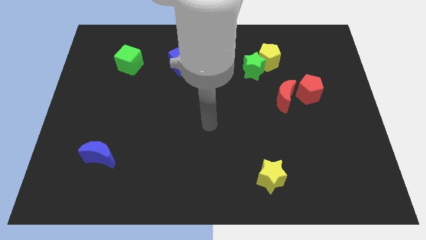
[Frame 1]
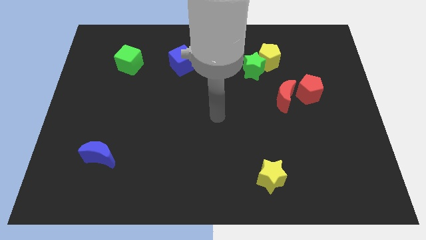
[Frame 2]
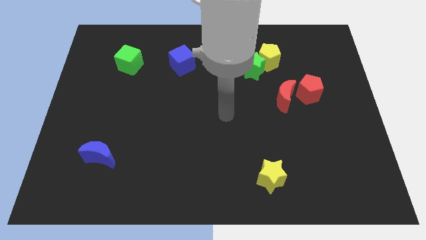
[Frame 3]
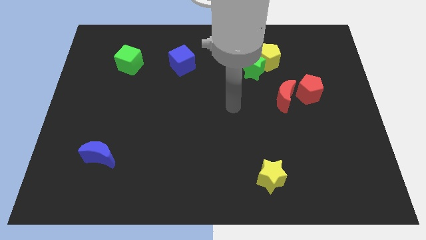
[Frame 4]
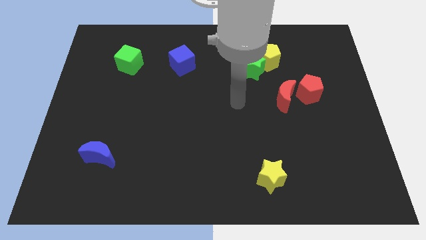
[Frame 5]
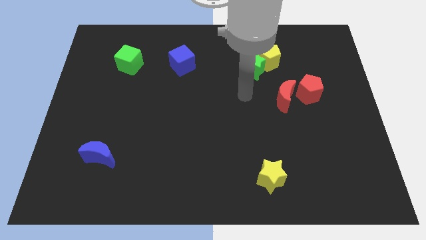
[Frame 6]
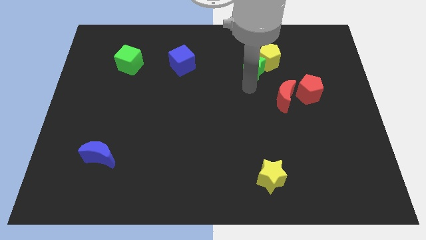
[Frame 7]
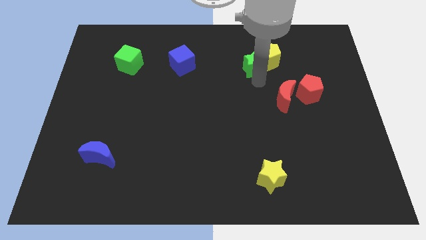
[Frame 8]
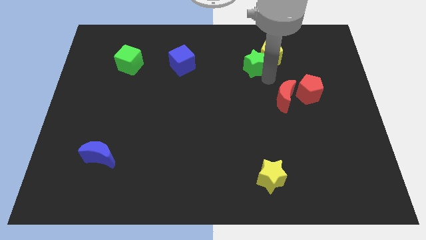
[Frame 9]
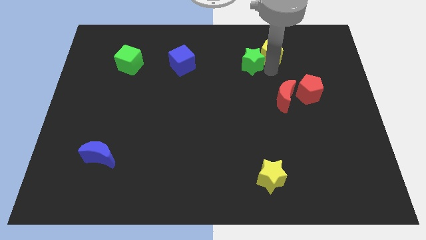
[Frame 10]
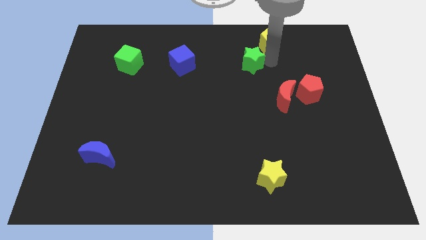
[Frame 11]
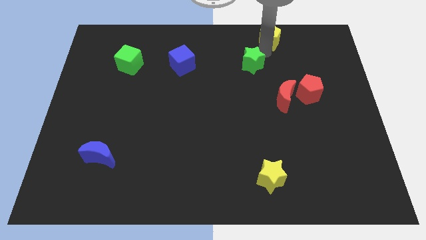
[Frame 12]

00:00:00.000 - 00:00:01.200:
move the green star away from the yellow pentagon

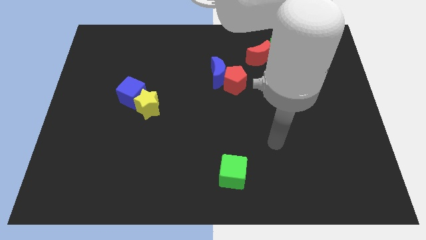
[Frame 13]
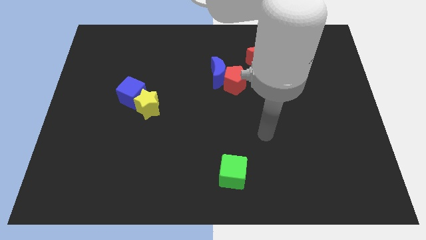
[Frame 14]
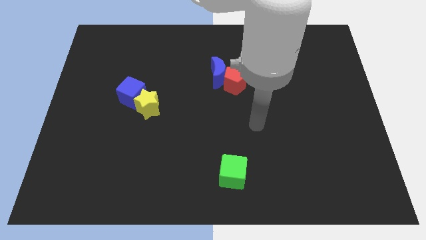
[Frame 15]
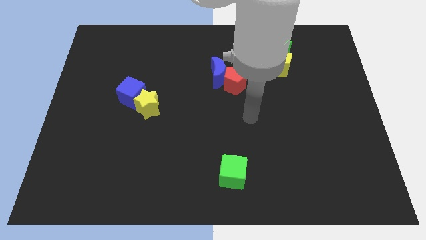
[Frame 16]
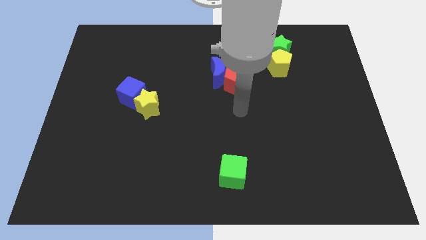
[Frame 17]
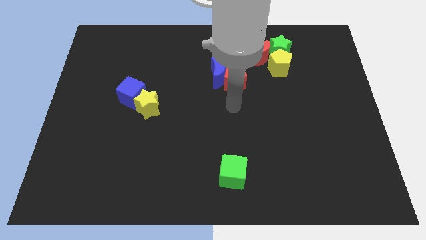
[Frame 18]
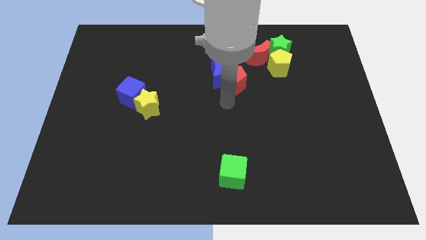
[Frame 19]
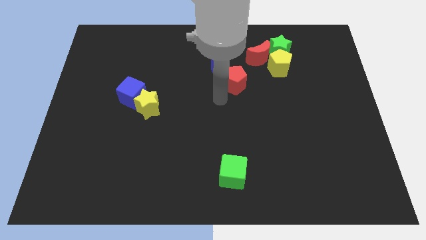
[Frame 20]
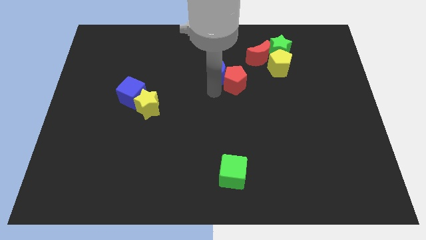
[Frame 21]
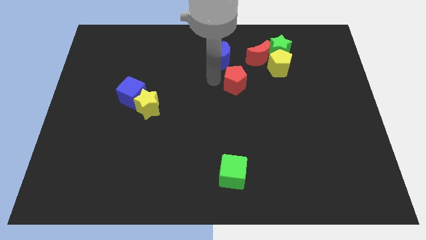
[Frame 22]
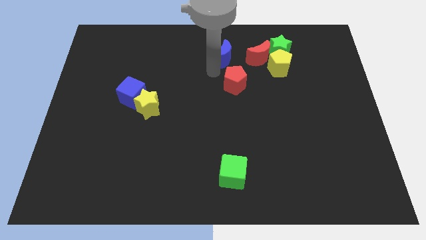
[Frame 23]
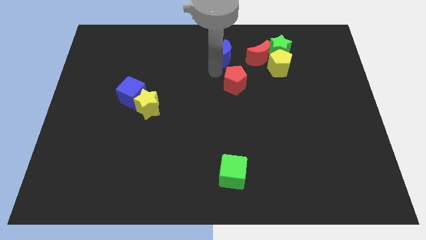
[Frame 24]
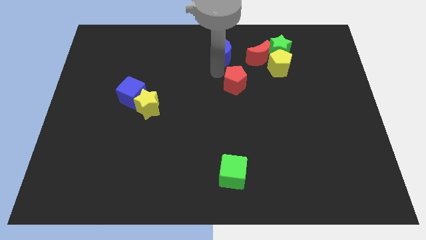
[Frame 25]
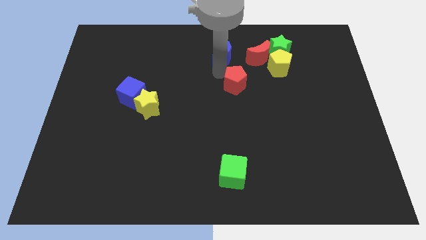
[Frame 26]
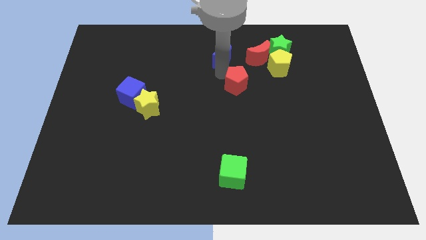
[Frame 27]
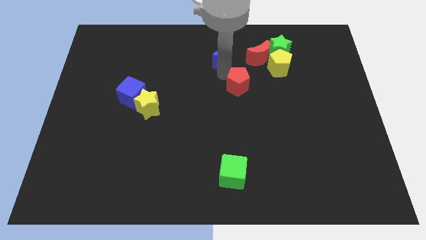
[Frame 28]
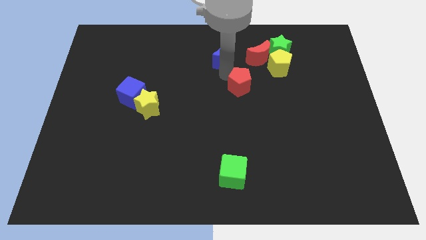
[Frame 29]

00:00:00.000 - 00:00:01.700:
separate the red pentagon from the blue moon

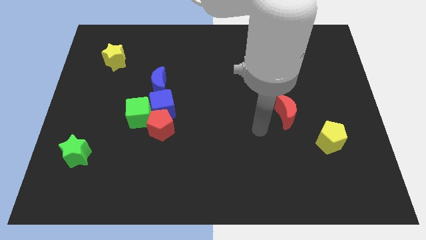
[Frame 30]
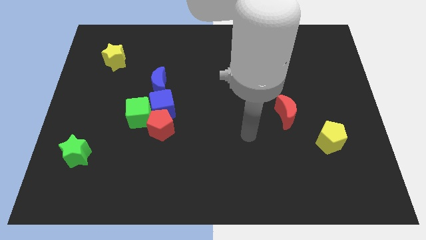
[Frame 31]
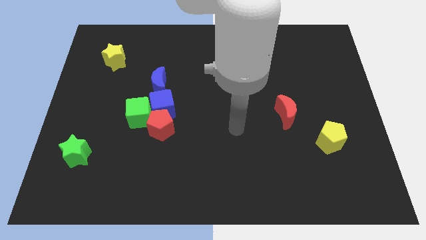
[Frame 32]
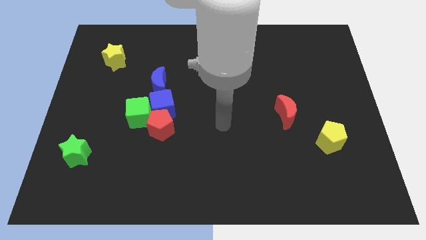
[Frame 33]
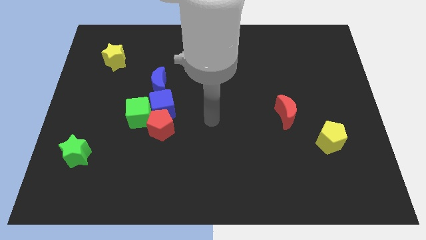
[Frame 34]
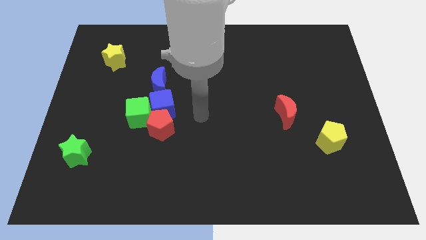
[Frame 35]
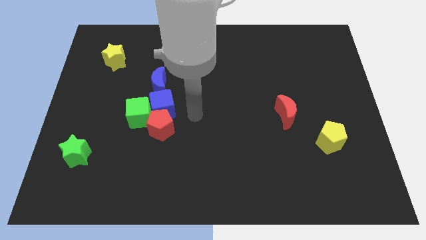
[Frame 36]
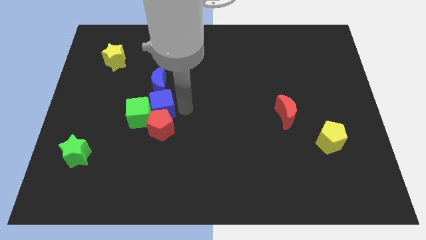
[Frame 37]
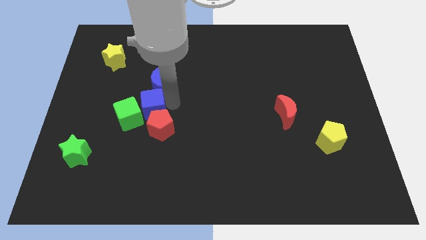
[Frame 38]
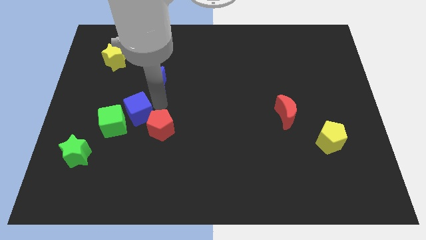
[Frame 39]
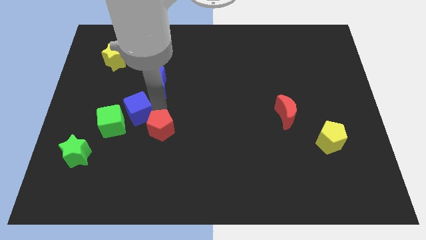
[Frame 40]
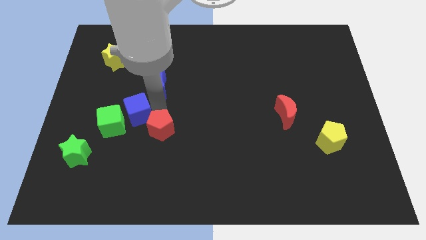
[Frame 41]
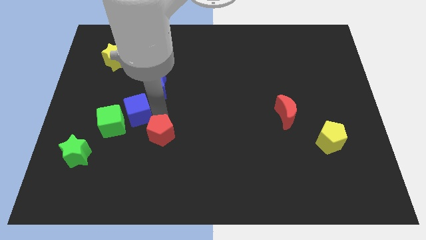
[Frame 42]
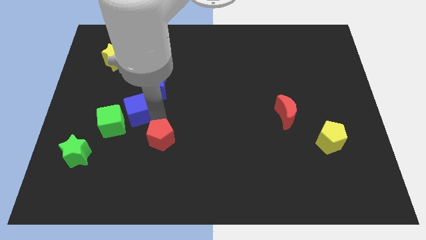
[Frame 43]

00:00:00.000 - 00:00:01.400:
move the red pentagon away from the blue cube and green cube

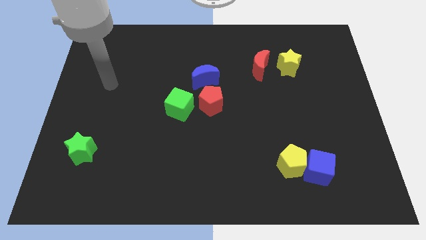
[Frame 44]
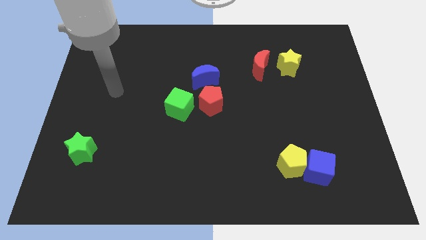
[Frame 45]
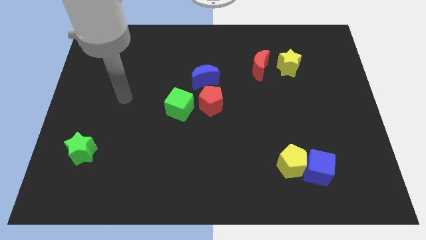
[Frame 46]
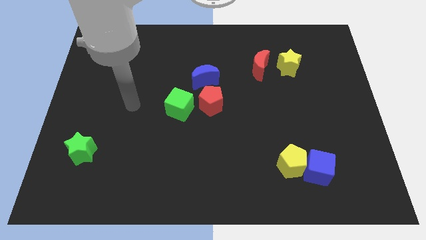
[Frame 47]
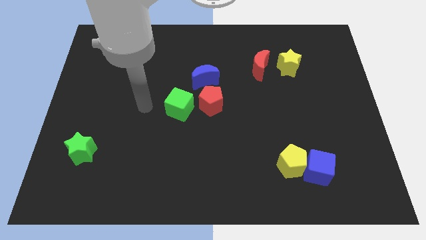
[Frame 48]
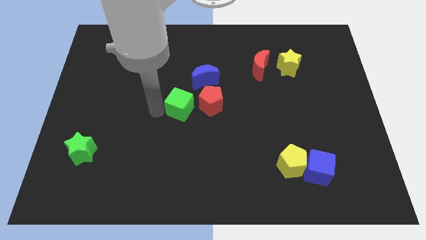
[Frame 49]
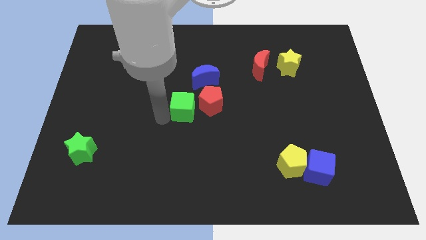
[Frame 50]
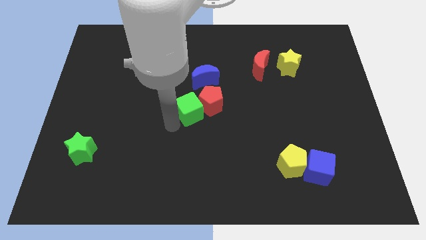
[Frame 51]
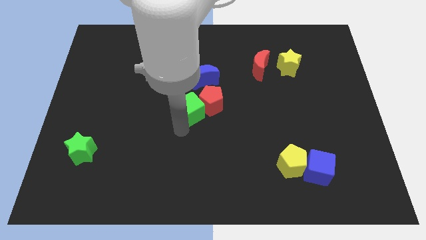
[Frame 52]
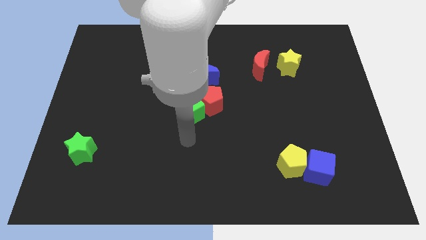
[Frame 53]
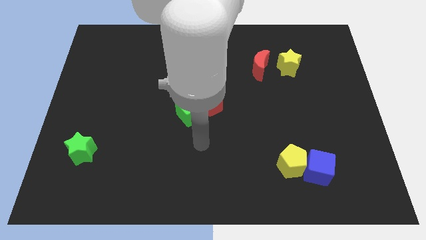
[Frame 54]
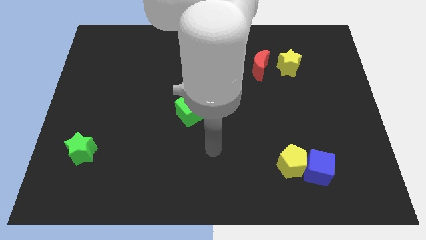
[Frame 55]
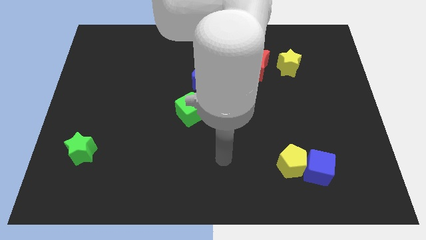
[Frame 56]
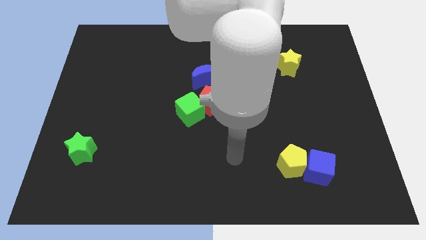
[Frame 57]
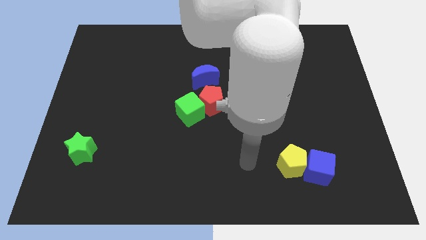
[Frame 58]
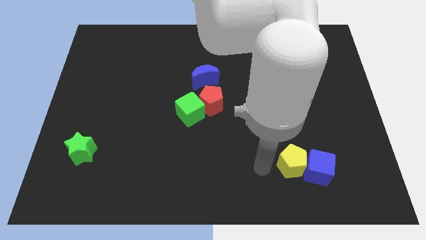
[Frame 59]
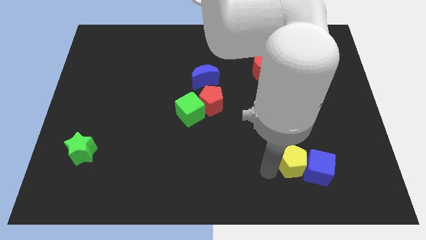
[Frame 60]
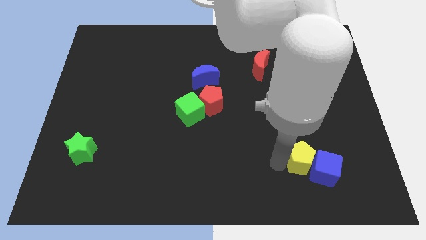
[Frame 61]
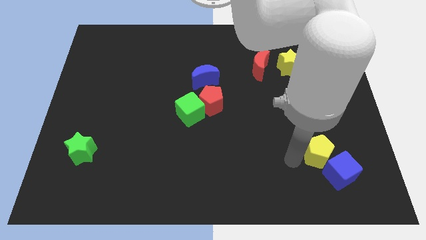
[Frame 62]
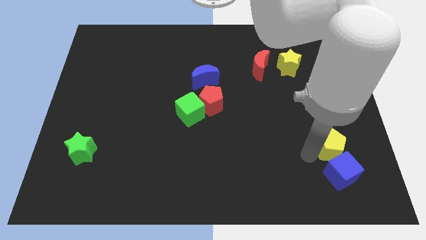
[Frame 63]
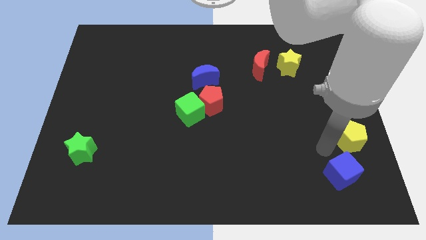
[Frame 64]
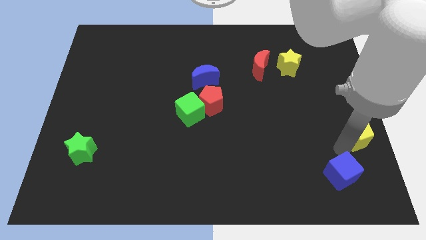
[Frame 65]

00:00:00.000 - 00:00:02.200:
separate the blue cube from the yellow pentagon

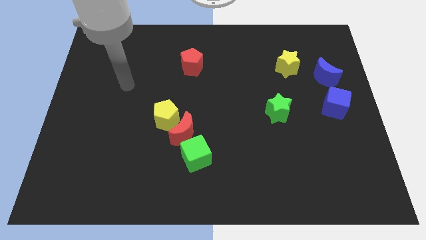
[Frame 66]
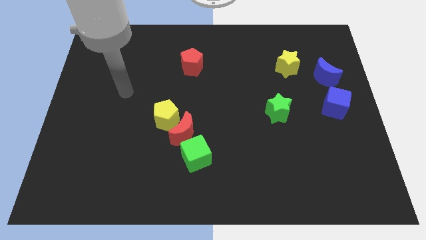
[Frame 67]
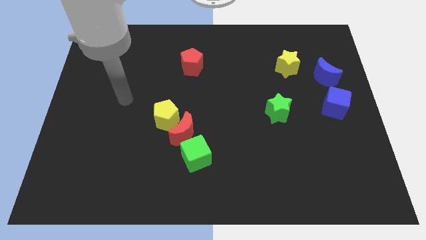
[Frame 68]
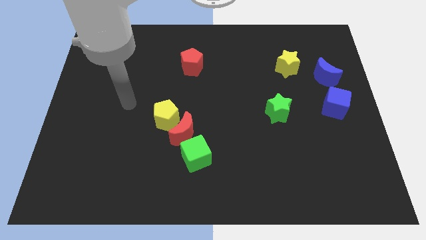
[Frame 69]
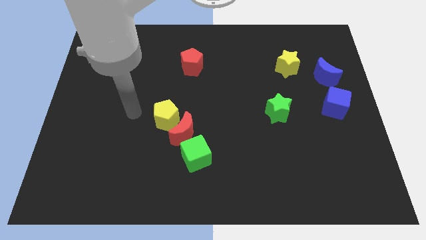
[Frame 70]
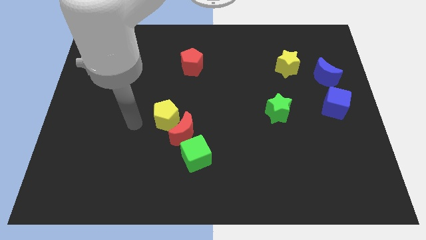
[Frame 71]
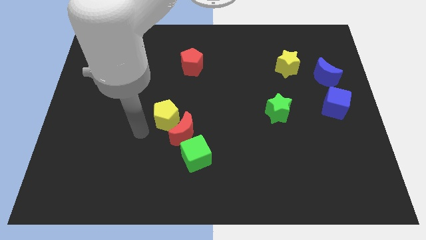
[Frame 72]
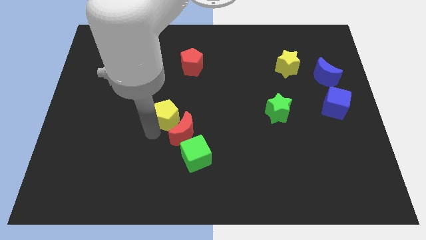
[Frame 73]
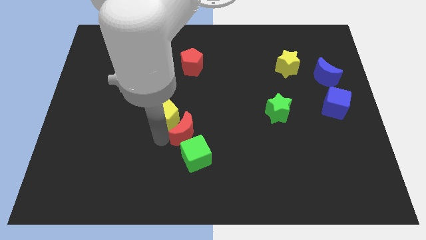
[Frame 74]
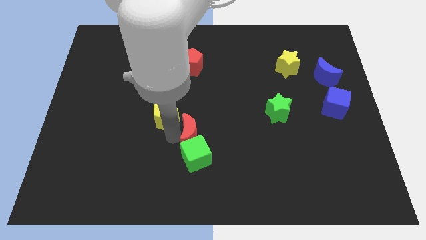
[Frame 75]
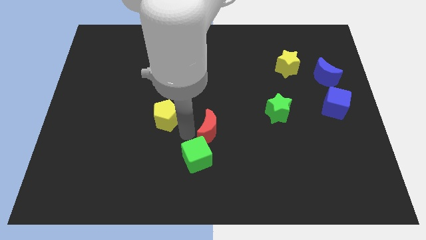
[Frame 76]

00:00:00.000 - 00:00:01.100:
separate the yellow pentagon from the red moon

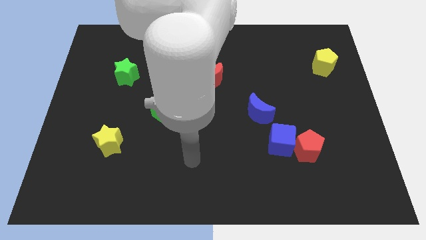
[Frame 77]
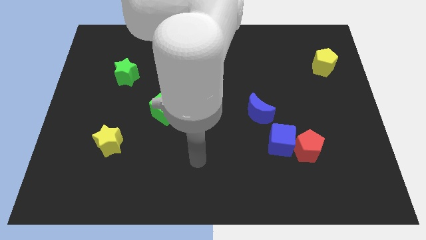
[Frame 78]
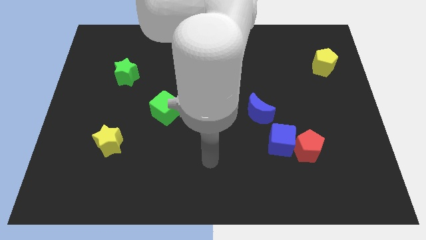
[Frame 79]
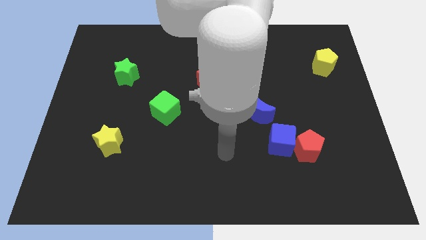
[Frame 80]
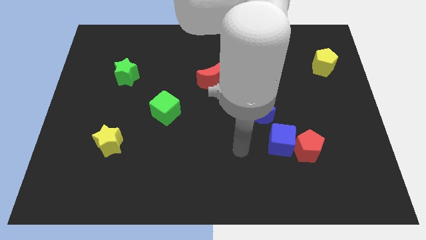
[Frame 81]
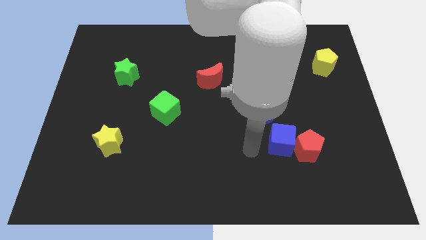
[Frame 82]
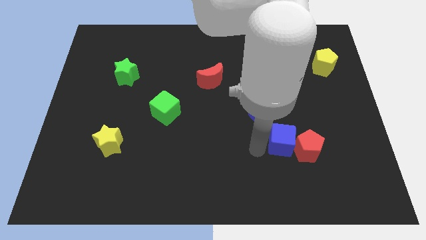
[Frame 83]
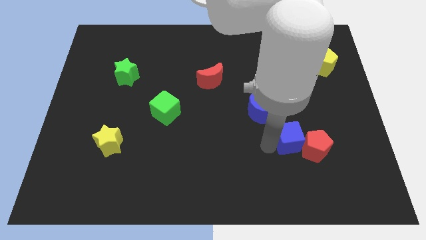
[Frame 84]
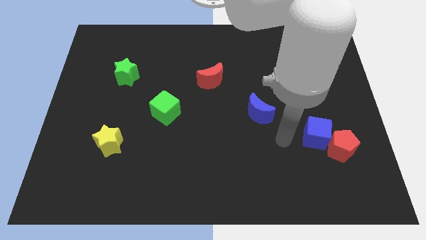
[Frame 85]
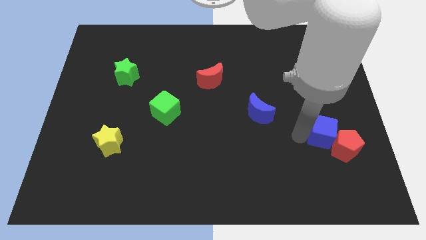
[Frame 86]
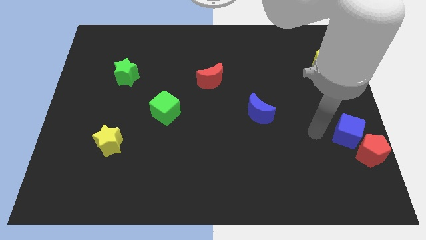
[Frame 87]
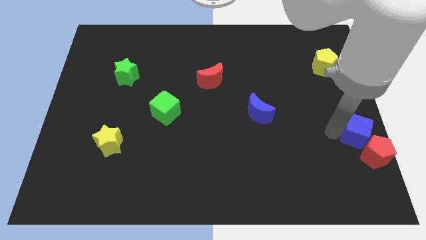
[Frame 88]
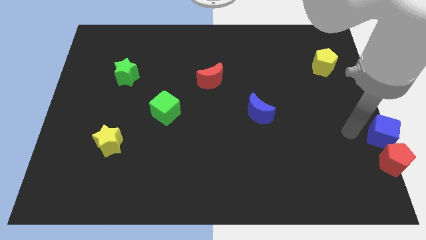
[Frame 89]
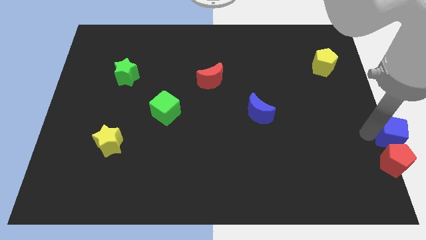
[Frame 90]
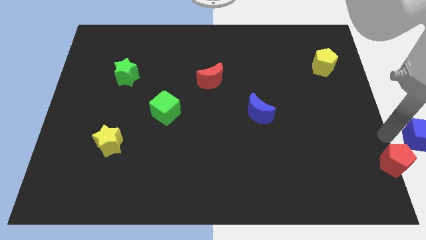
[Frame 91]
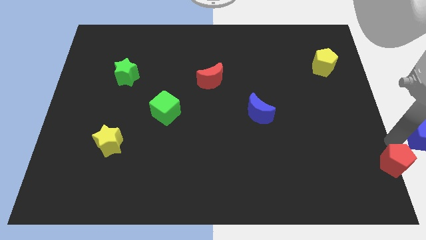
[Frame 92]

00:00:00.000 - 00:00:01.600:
separate the red pentagon from the blue cube
